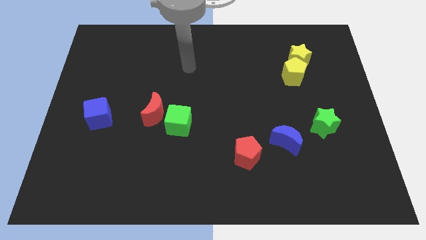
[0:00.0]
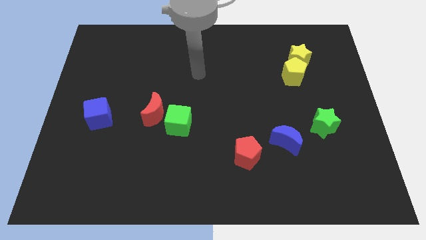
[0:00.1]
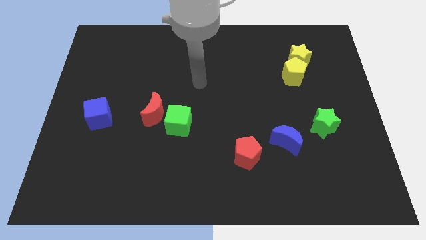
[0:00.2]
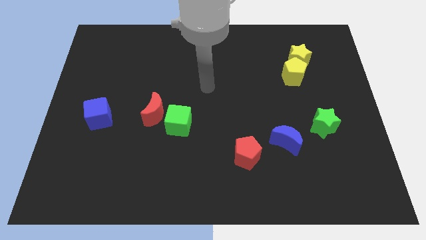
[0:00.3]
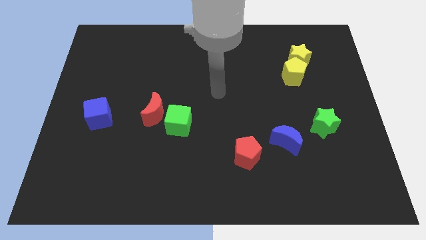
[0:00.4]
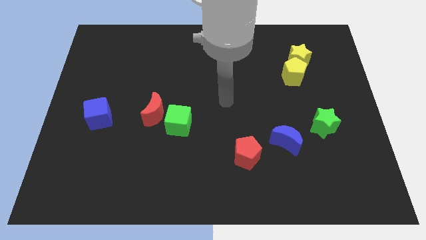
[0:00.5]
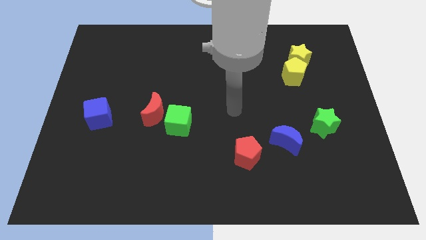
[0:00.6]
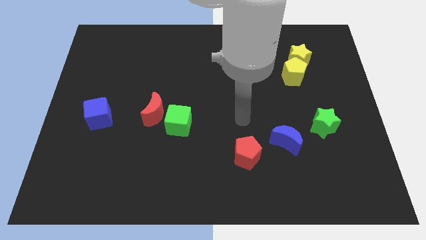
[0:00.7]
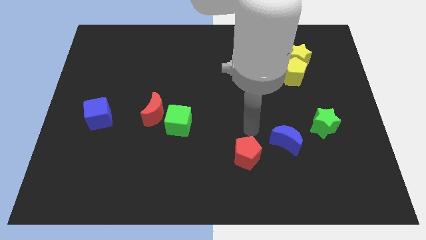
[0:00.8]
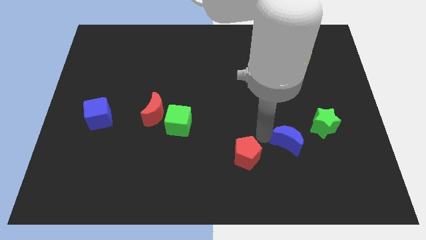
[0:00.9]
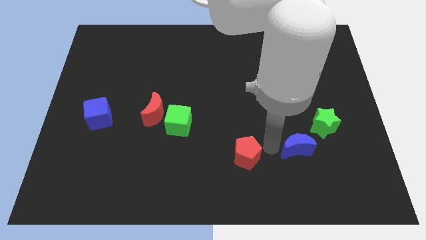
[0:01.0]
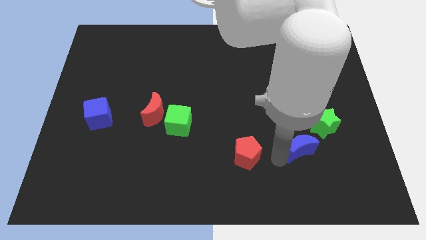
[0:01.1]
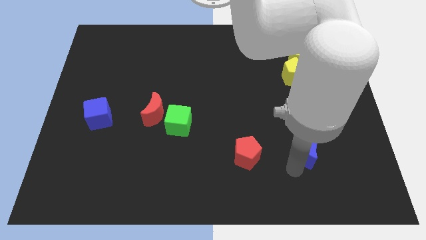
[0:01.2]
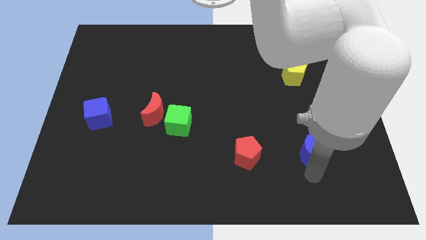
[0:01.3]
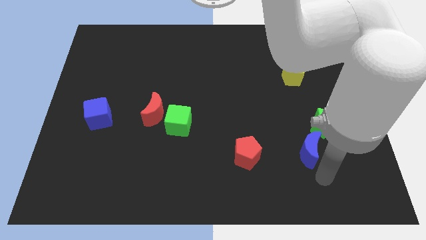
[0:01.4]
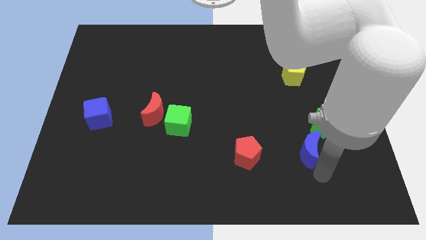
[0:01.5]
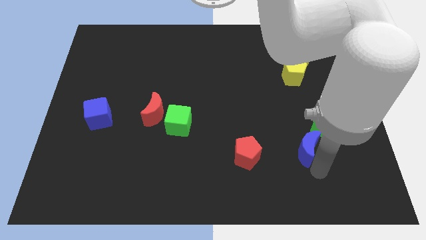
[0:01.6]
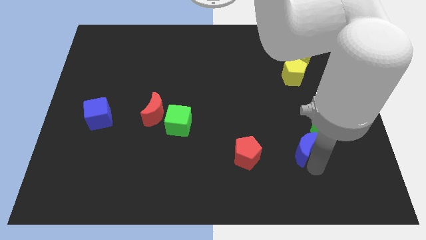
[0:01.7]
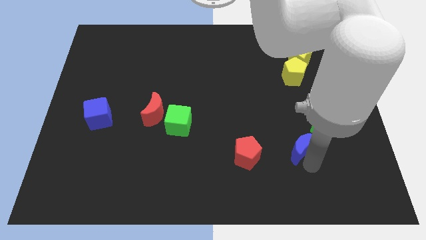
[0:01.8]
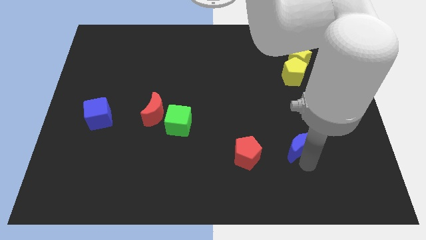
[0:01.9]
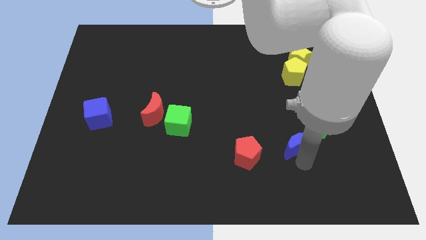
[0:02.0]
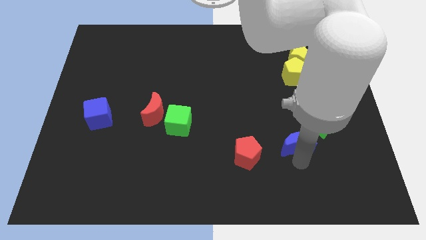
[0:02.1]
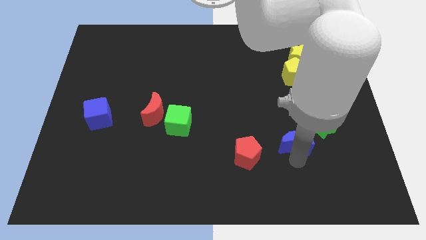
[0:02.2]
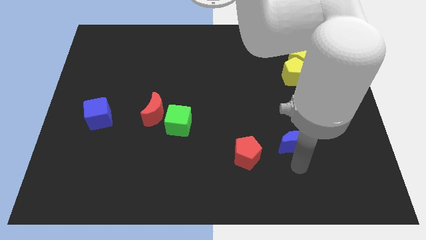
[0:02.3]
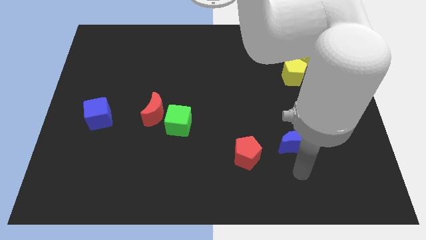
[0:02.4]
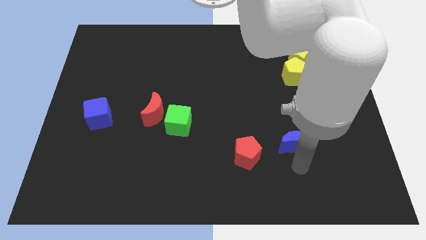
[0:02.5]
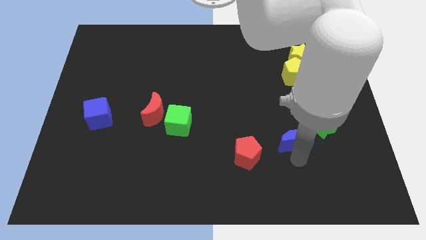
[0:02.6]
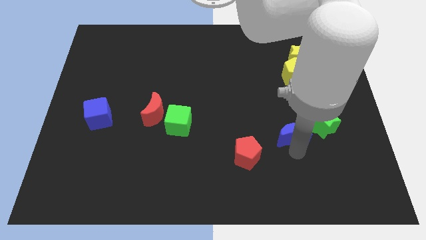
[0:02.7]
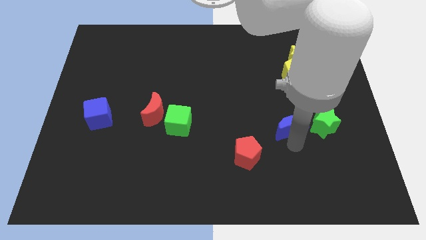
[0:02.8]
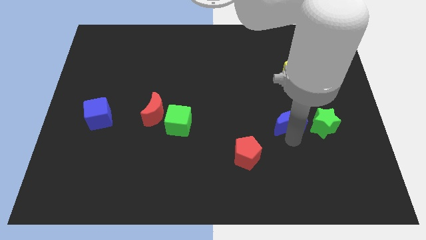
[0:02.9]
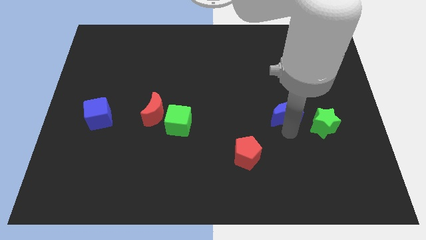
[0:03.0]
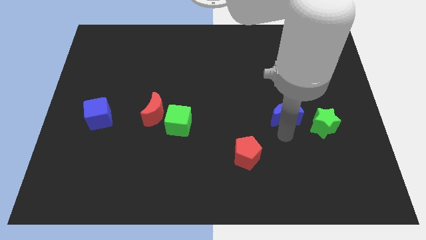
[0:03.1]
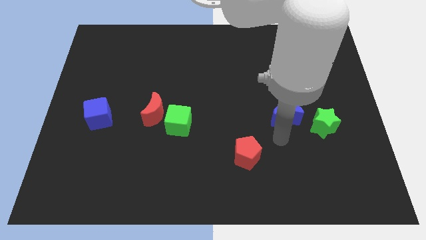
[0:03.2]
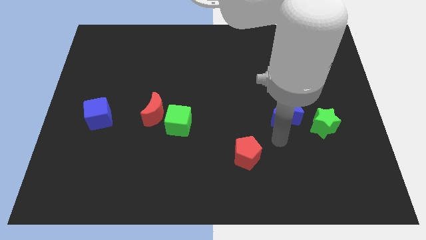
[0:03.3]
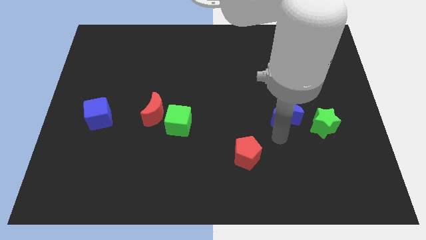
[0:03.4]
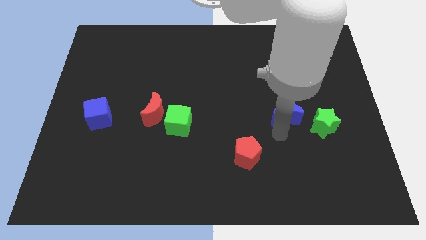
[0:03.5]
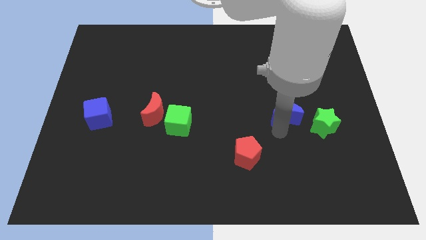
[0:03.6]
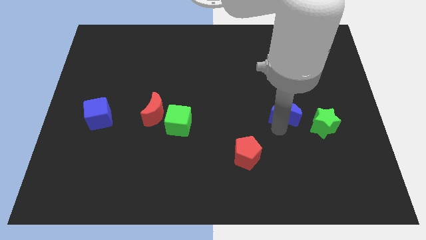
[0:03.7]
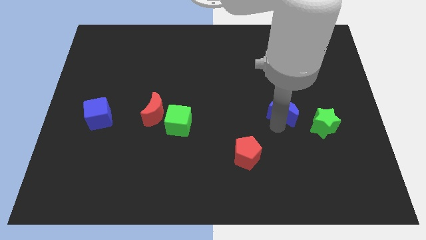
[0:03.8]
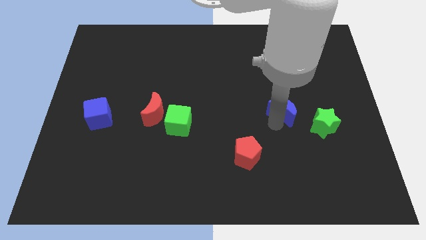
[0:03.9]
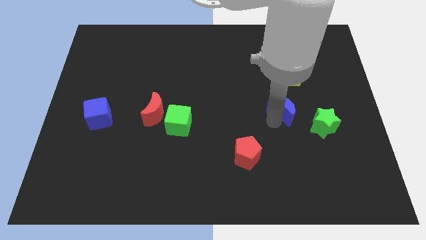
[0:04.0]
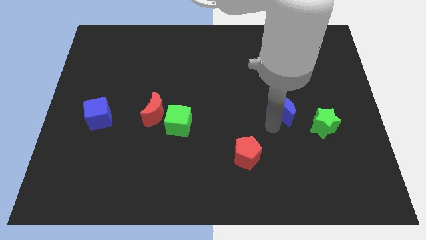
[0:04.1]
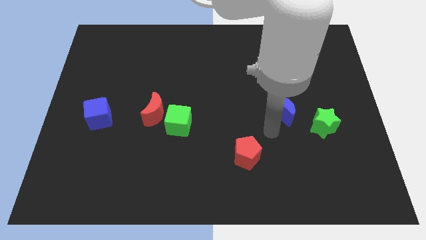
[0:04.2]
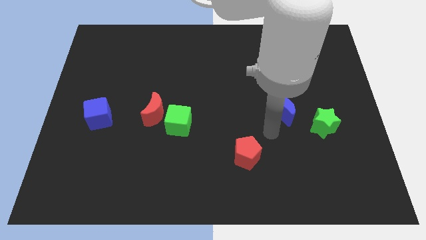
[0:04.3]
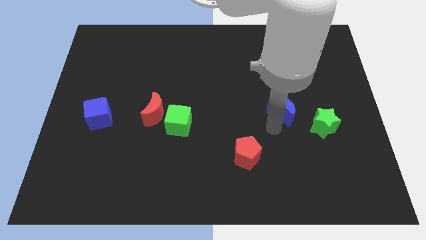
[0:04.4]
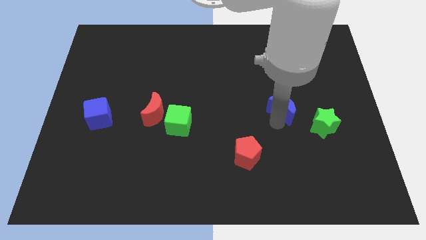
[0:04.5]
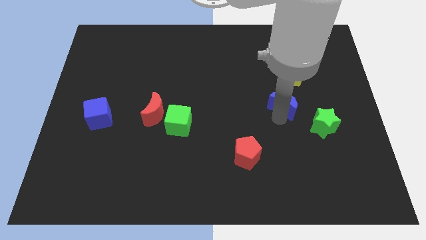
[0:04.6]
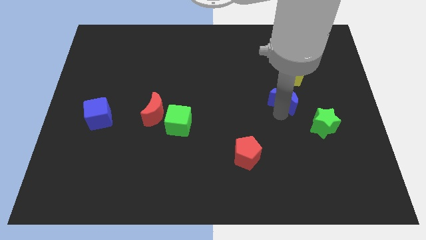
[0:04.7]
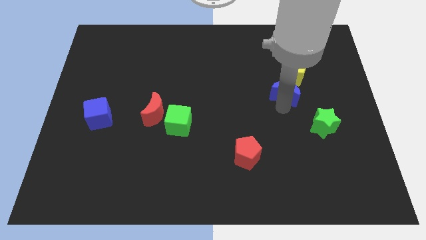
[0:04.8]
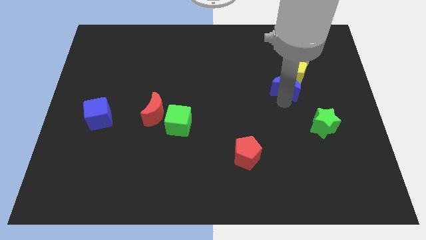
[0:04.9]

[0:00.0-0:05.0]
put the blue moon close to the yellow pentagon

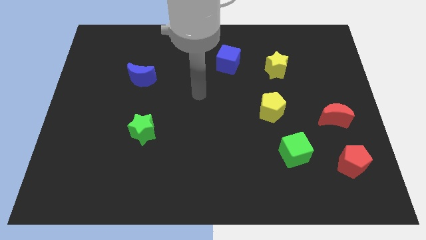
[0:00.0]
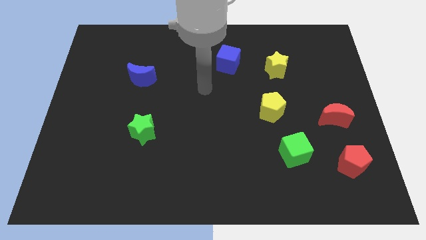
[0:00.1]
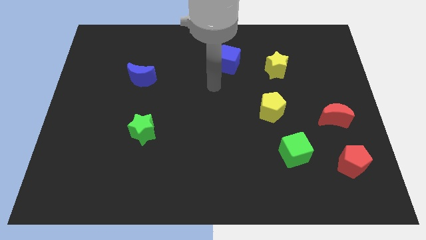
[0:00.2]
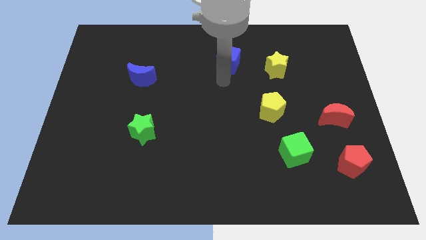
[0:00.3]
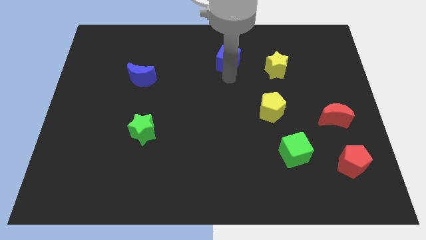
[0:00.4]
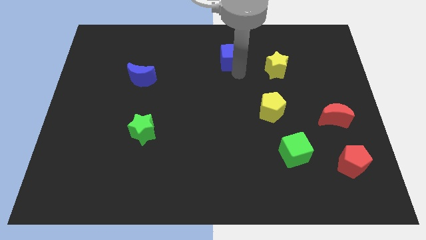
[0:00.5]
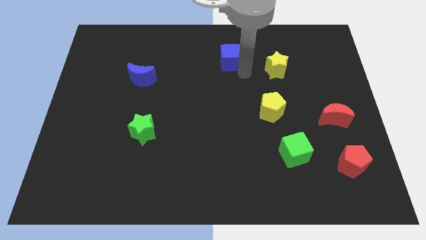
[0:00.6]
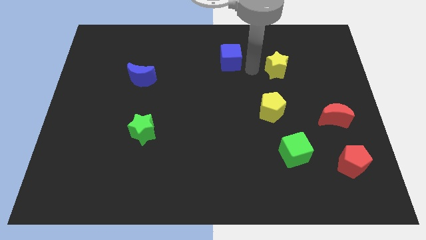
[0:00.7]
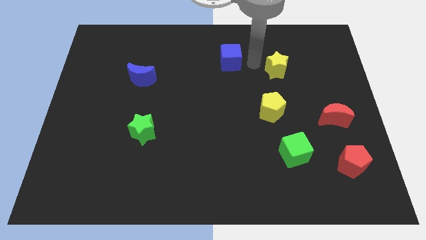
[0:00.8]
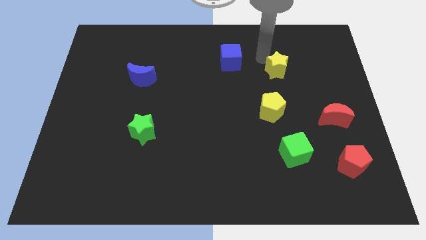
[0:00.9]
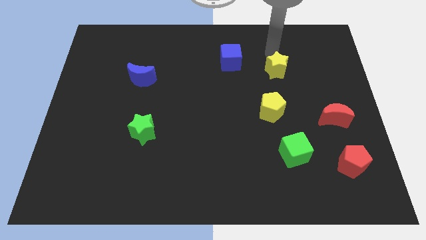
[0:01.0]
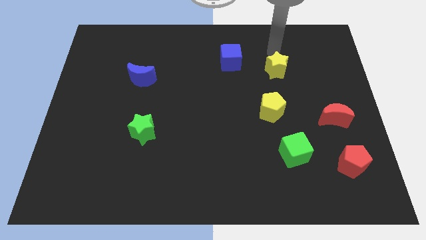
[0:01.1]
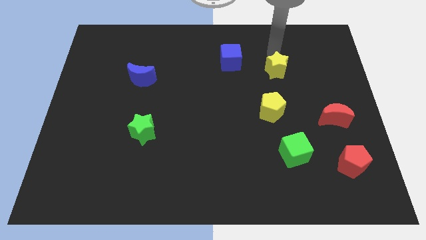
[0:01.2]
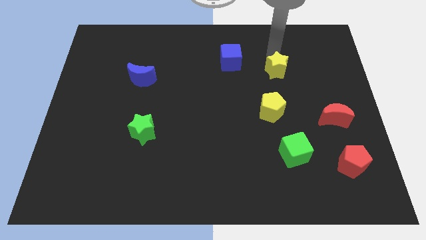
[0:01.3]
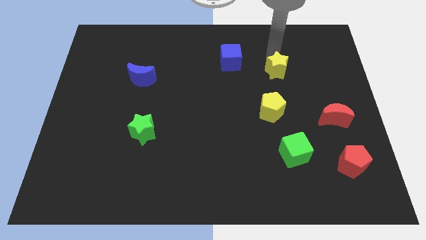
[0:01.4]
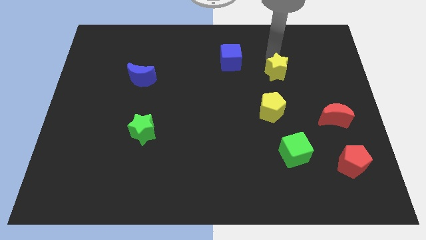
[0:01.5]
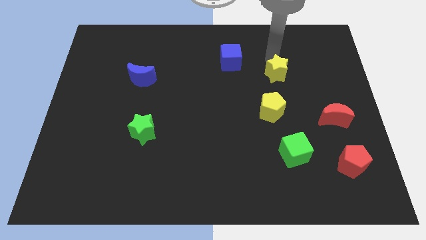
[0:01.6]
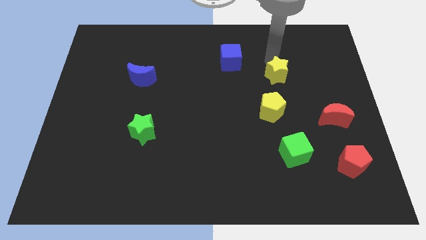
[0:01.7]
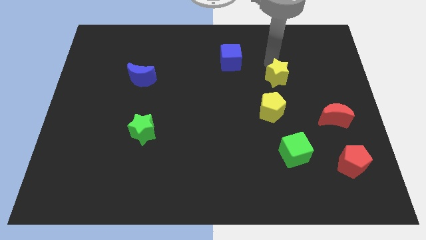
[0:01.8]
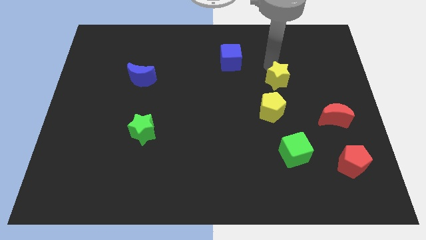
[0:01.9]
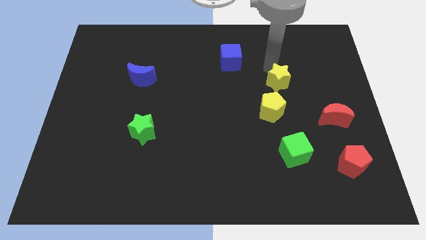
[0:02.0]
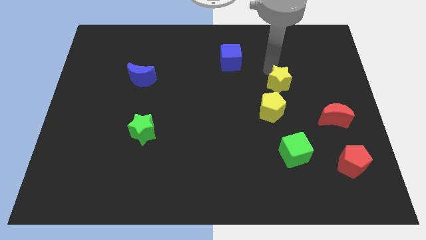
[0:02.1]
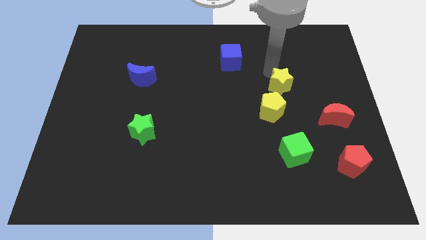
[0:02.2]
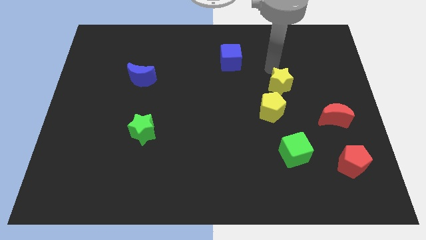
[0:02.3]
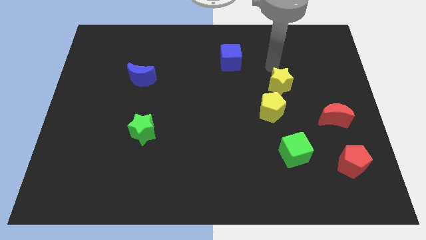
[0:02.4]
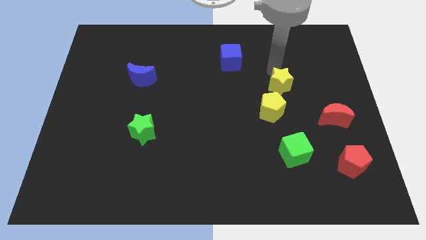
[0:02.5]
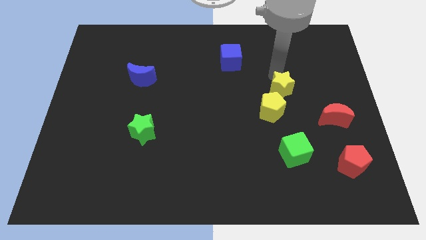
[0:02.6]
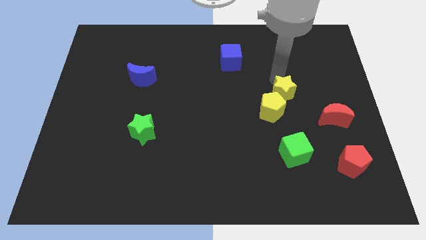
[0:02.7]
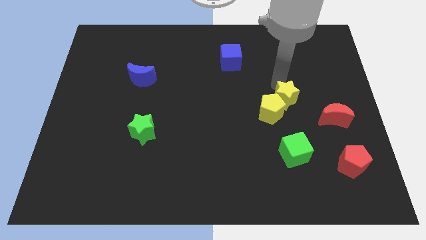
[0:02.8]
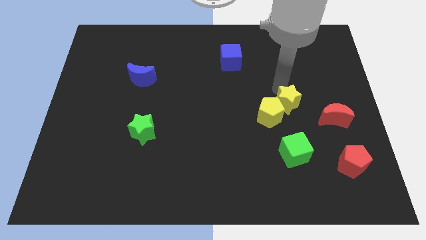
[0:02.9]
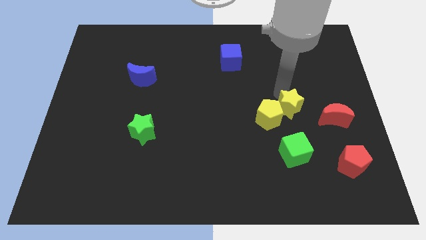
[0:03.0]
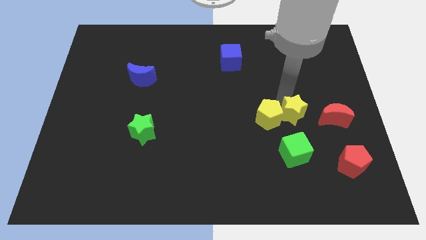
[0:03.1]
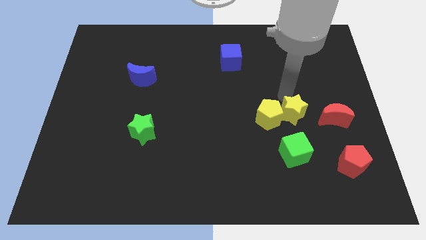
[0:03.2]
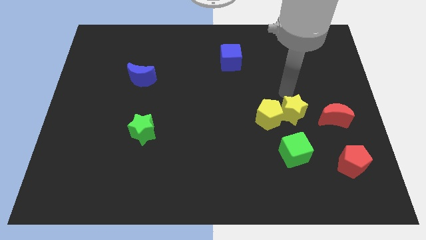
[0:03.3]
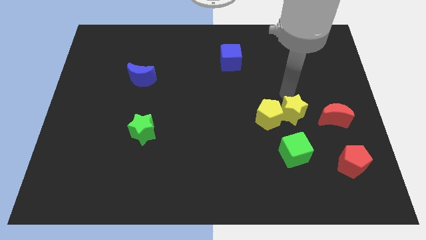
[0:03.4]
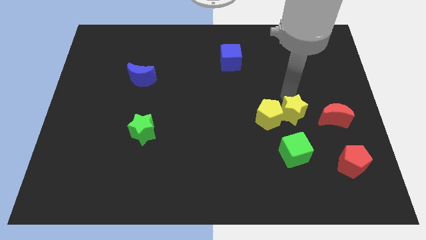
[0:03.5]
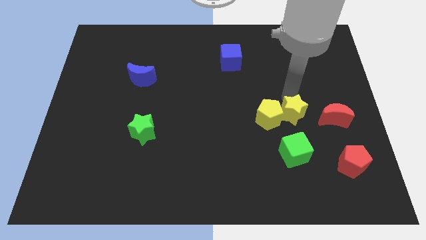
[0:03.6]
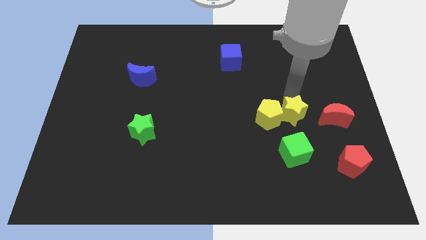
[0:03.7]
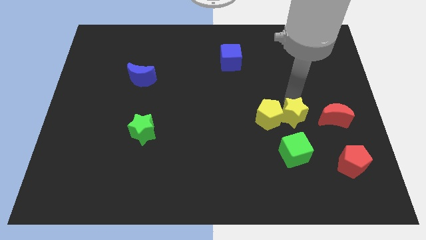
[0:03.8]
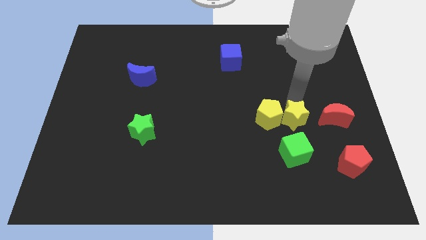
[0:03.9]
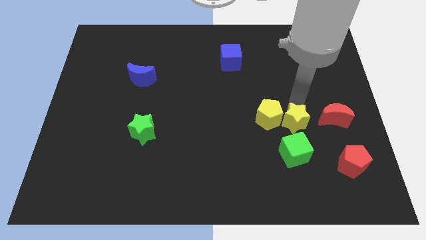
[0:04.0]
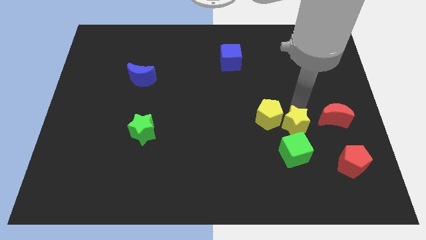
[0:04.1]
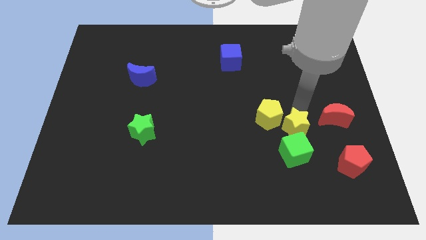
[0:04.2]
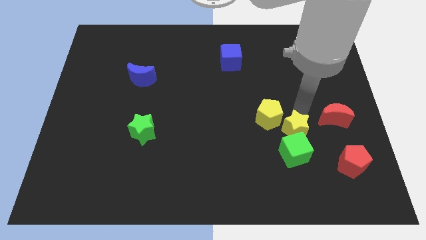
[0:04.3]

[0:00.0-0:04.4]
push the yellow star towards the green cube
